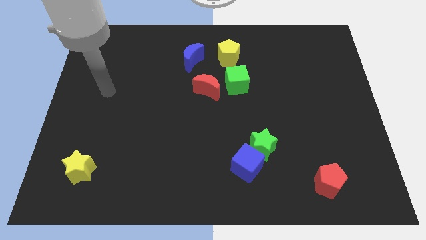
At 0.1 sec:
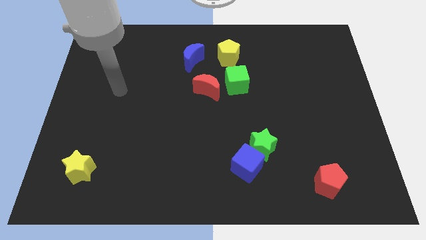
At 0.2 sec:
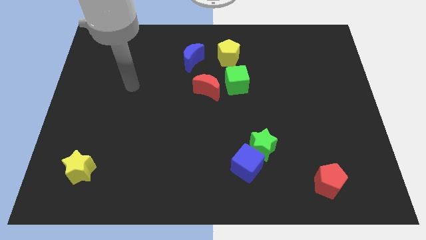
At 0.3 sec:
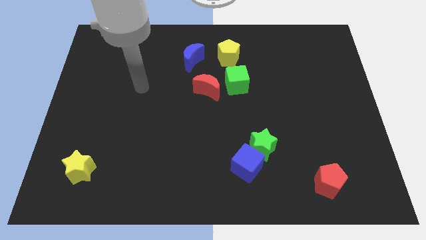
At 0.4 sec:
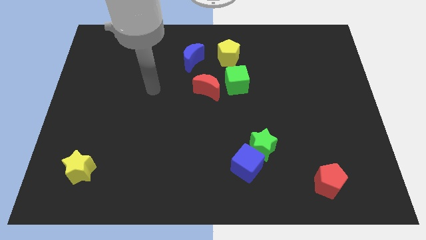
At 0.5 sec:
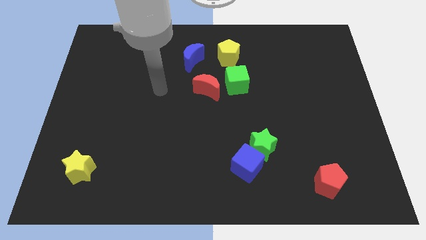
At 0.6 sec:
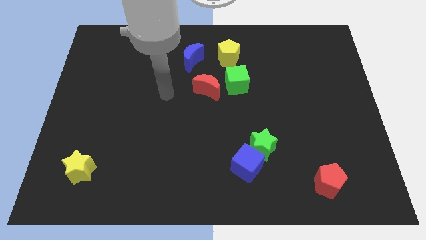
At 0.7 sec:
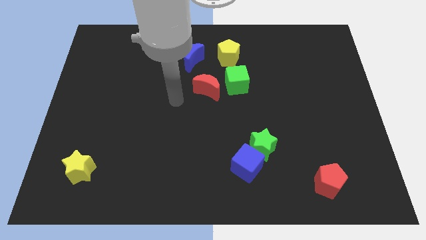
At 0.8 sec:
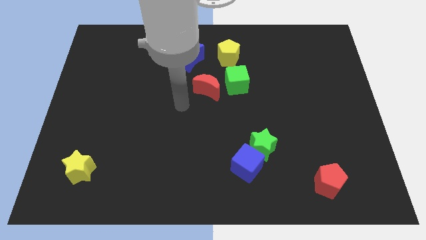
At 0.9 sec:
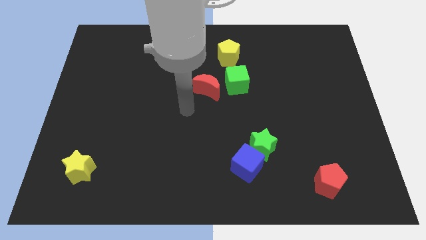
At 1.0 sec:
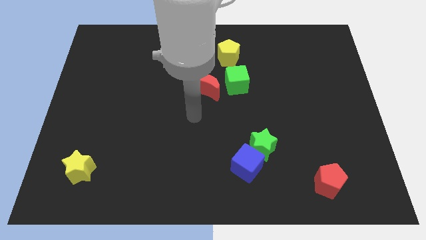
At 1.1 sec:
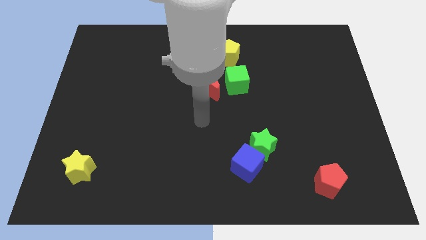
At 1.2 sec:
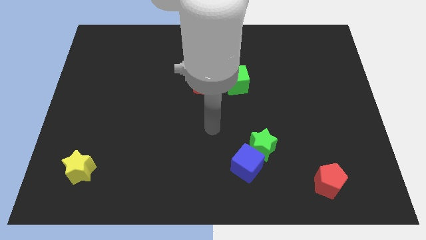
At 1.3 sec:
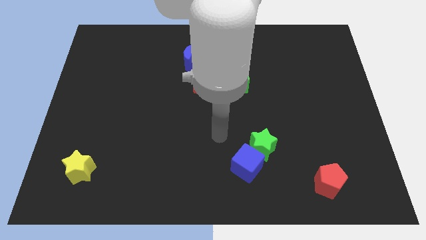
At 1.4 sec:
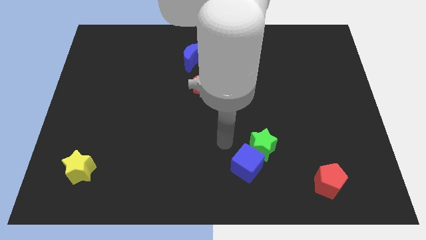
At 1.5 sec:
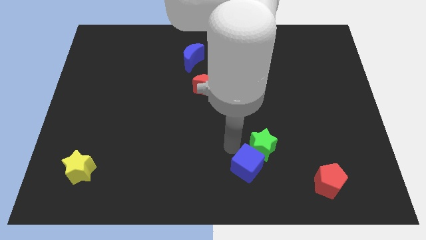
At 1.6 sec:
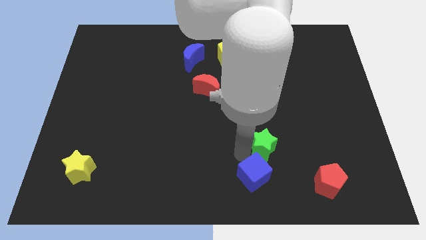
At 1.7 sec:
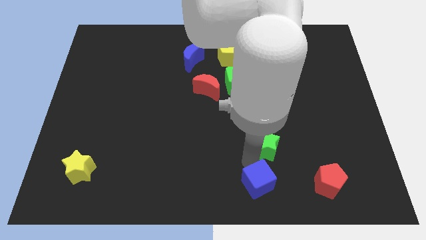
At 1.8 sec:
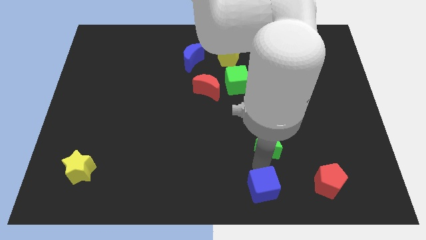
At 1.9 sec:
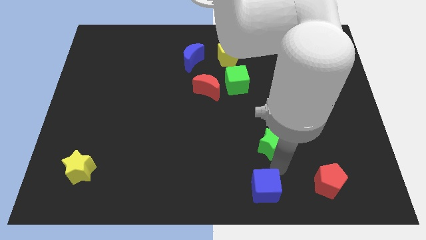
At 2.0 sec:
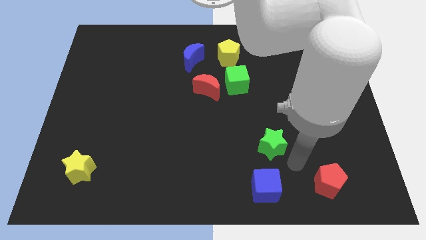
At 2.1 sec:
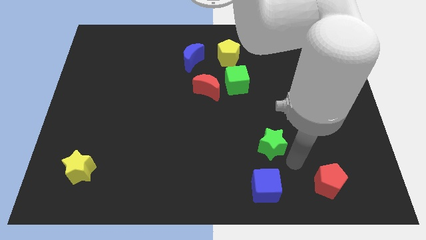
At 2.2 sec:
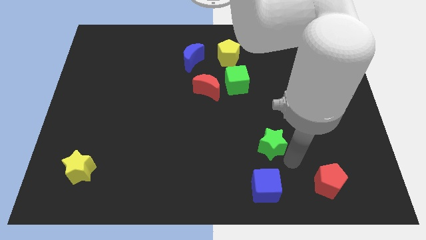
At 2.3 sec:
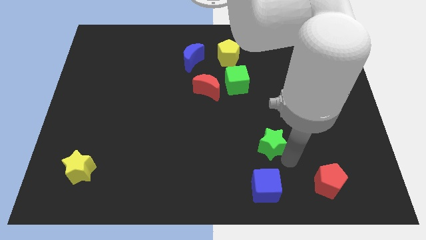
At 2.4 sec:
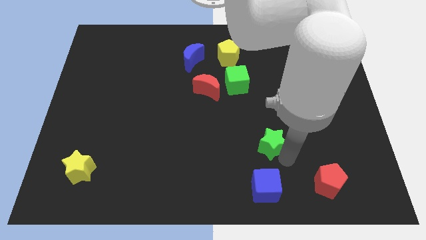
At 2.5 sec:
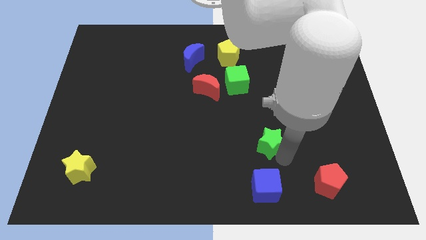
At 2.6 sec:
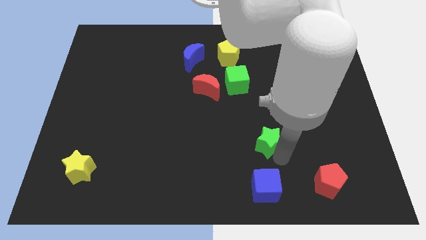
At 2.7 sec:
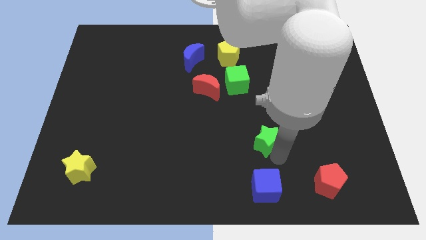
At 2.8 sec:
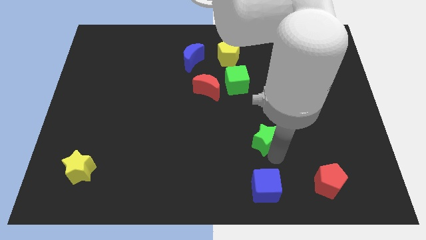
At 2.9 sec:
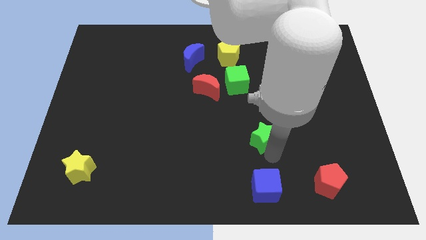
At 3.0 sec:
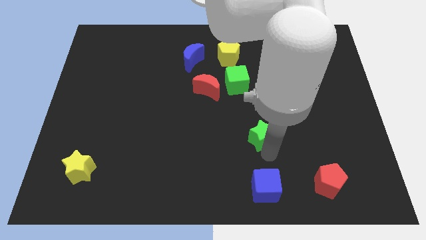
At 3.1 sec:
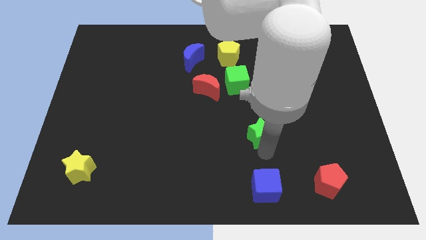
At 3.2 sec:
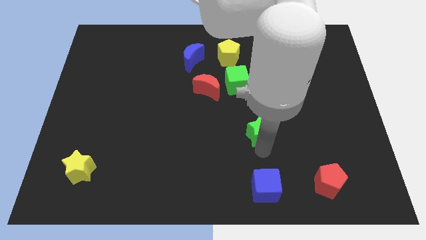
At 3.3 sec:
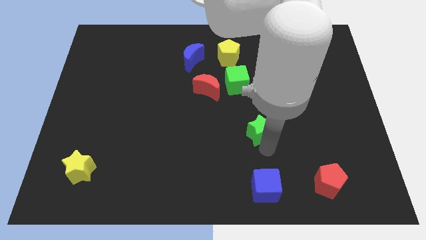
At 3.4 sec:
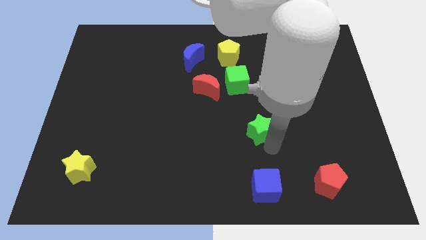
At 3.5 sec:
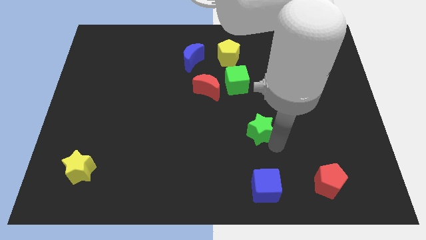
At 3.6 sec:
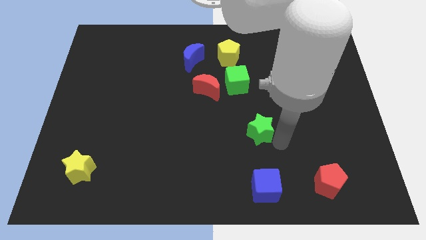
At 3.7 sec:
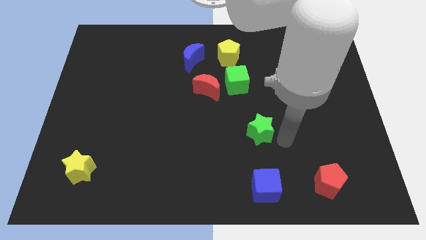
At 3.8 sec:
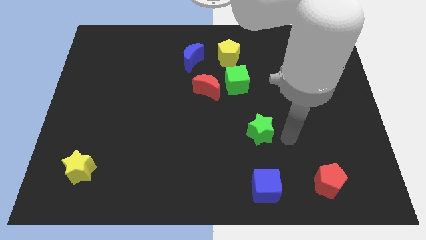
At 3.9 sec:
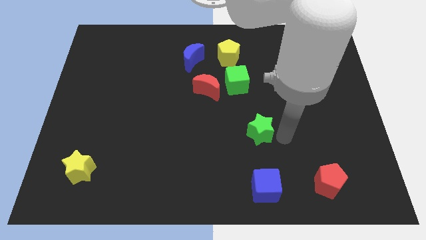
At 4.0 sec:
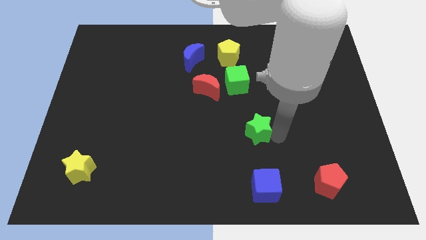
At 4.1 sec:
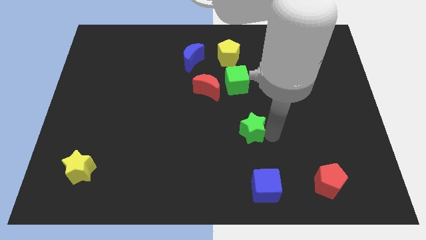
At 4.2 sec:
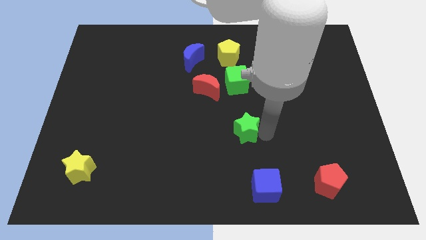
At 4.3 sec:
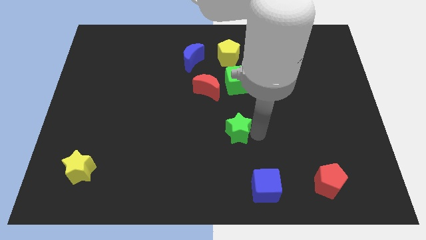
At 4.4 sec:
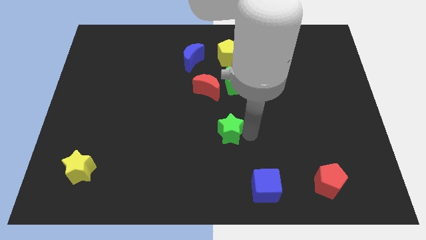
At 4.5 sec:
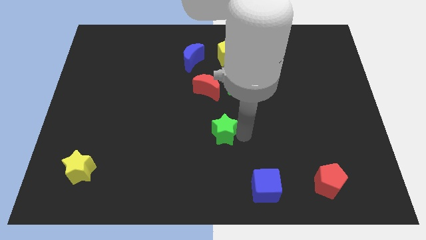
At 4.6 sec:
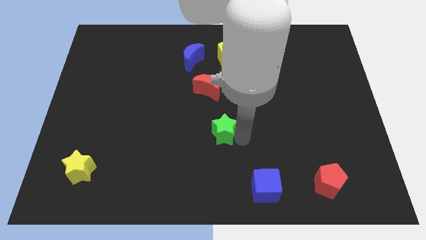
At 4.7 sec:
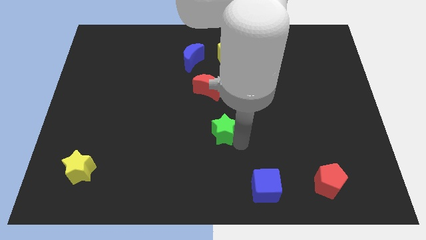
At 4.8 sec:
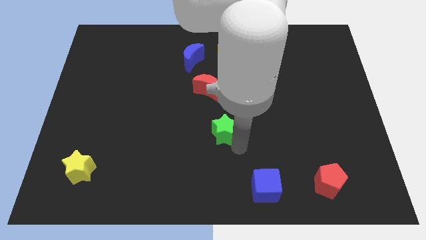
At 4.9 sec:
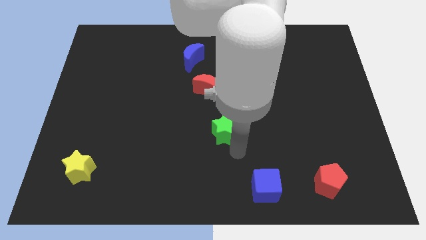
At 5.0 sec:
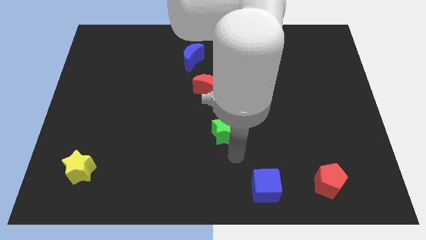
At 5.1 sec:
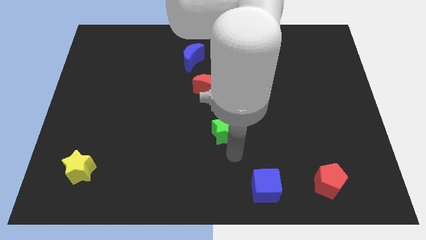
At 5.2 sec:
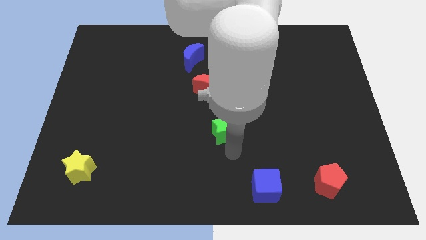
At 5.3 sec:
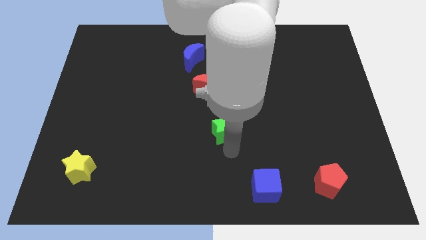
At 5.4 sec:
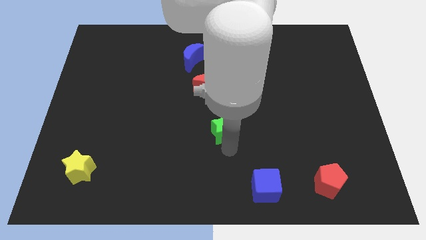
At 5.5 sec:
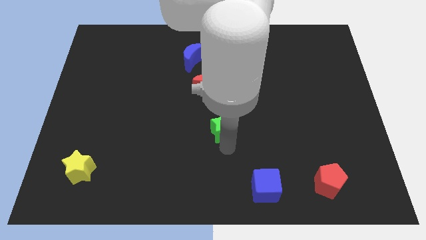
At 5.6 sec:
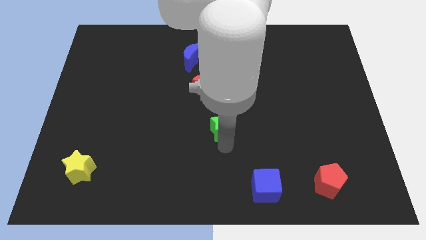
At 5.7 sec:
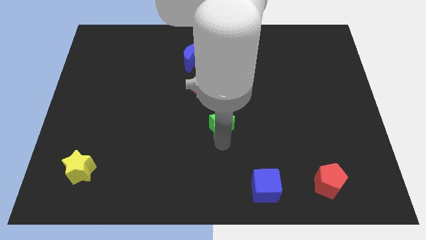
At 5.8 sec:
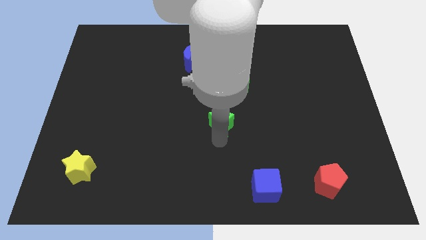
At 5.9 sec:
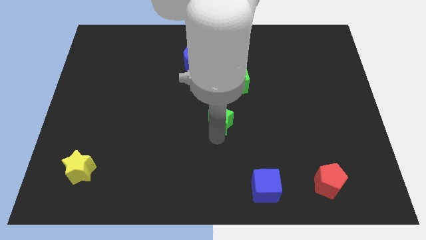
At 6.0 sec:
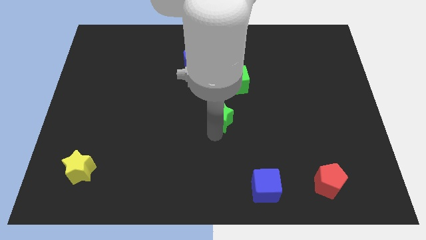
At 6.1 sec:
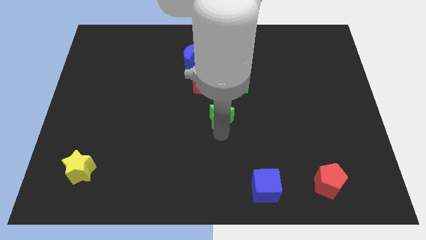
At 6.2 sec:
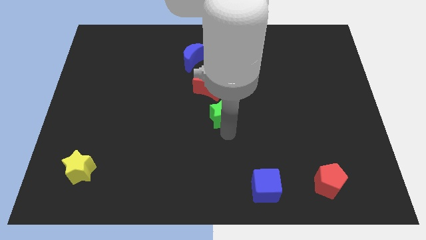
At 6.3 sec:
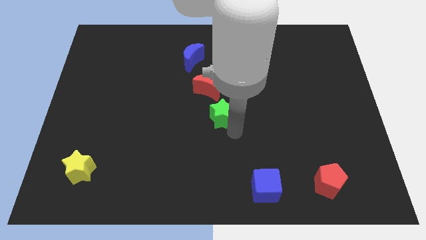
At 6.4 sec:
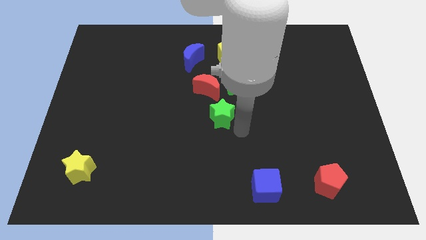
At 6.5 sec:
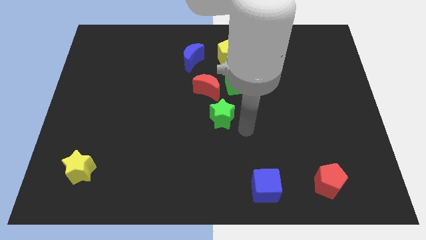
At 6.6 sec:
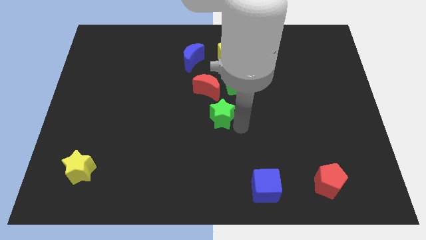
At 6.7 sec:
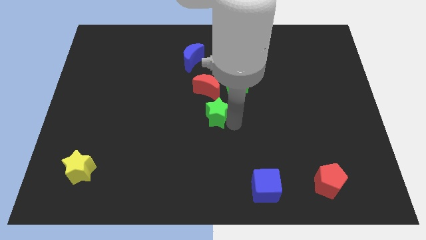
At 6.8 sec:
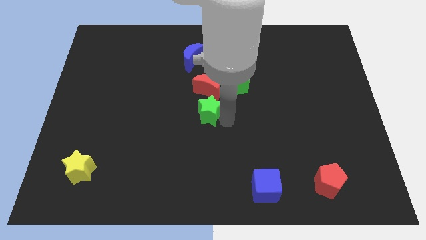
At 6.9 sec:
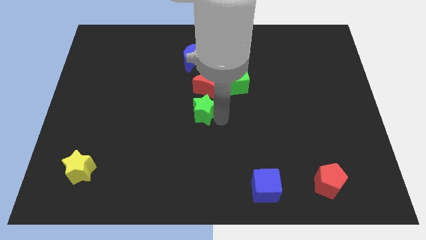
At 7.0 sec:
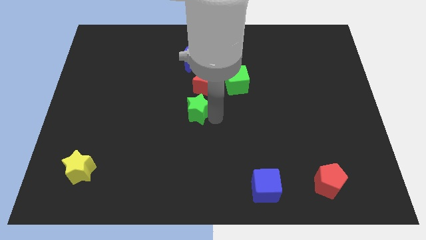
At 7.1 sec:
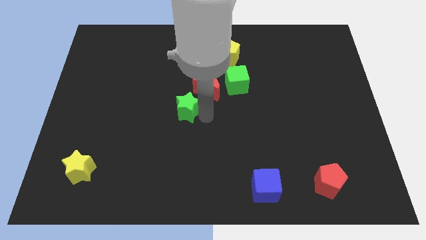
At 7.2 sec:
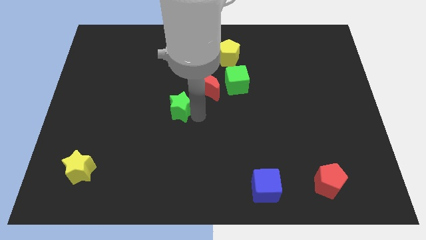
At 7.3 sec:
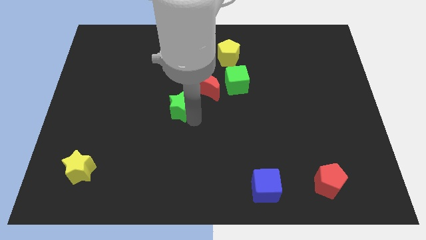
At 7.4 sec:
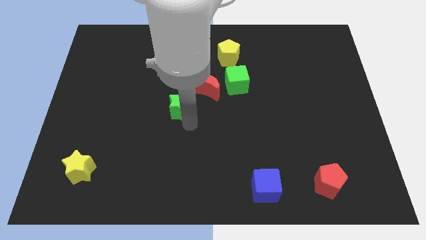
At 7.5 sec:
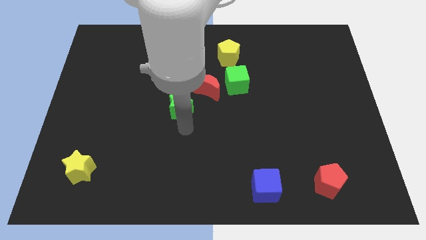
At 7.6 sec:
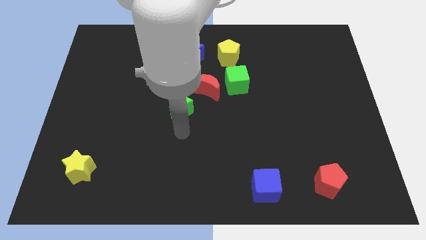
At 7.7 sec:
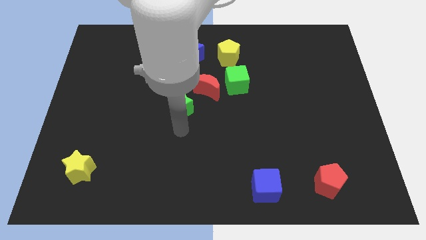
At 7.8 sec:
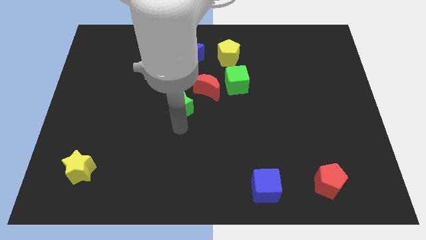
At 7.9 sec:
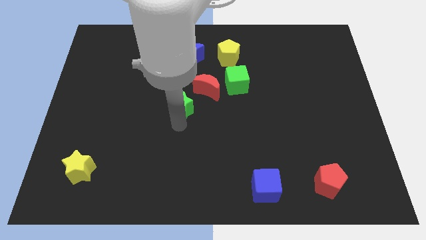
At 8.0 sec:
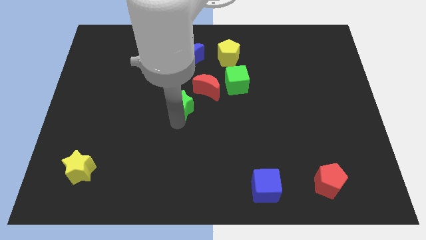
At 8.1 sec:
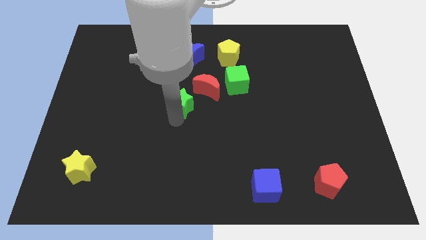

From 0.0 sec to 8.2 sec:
push the green star up and then left
